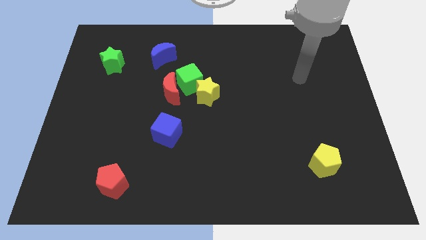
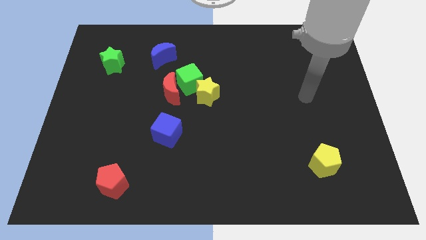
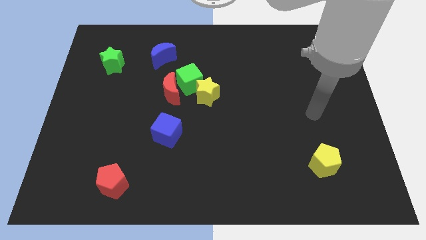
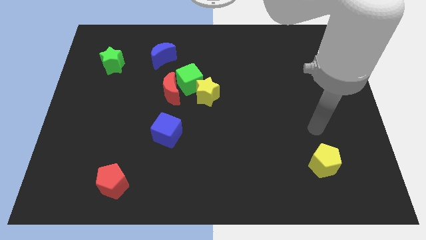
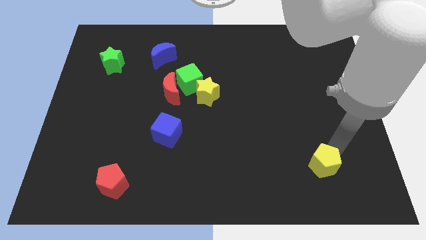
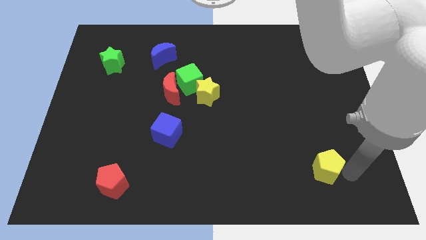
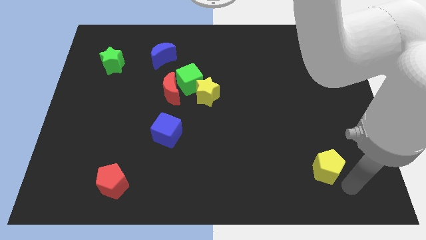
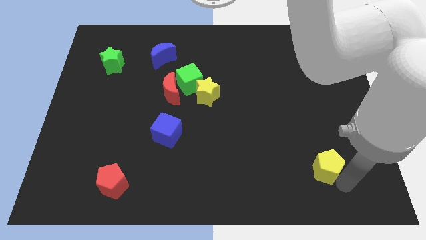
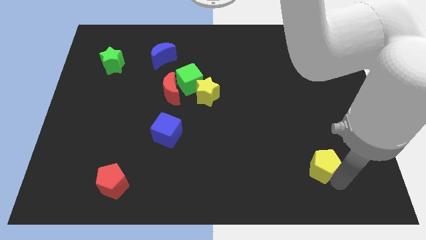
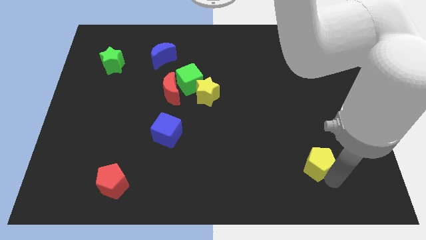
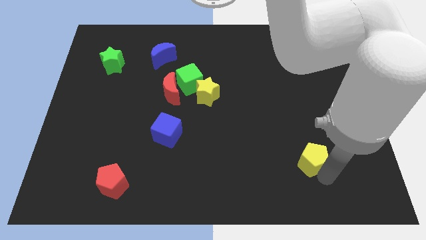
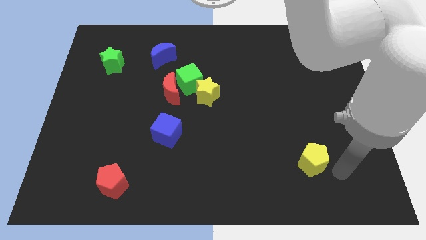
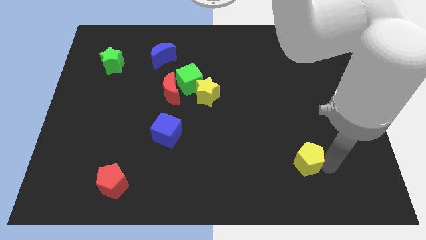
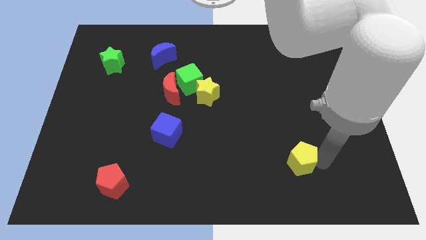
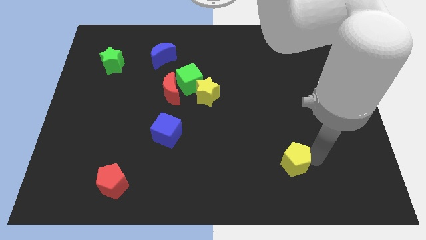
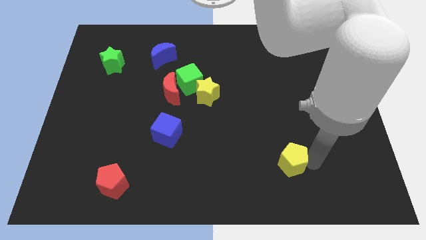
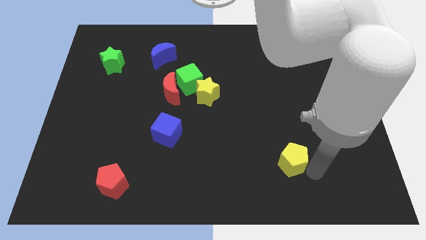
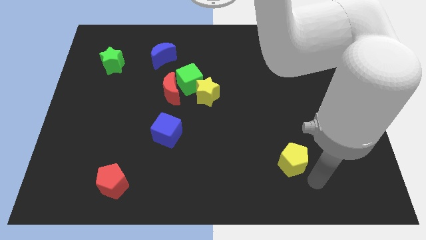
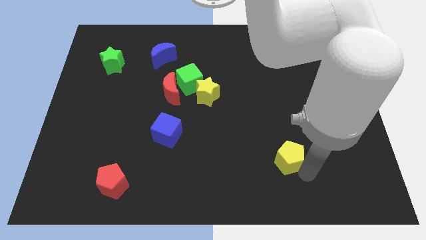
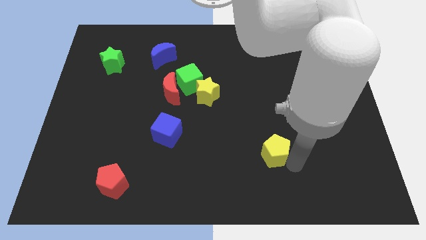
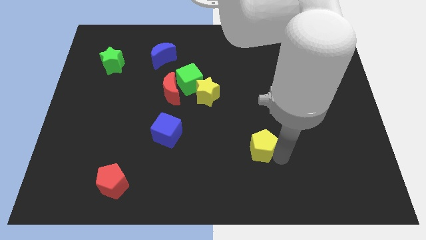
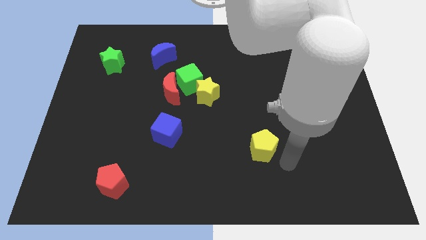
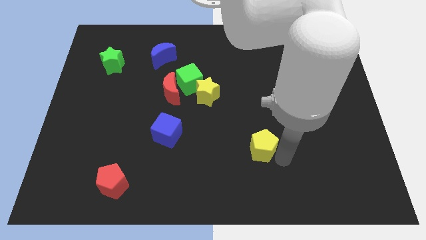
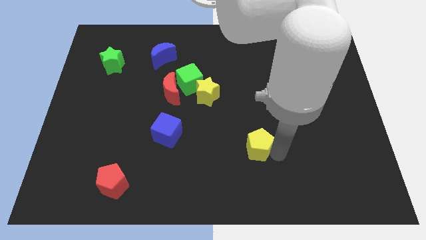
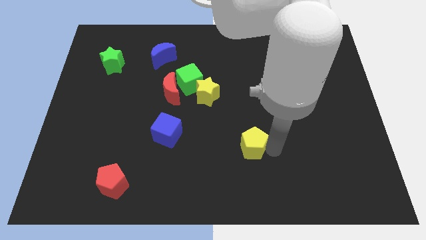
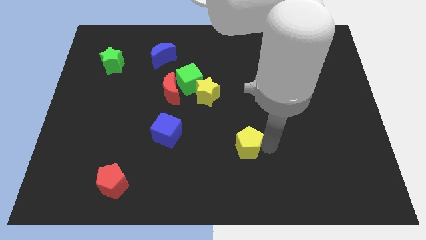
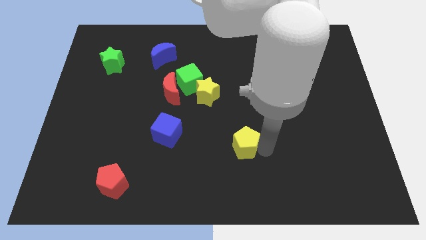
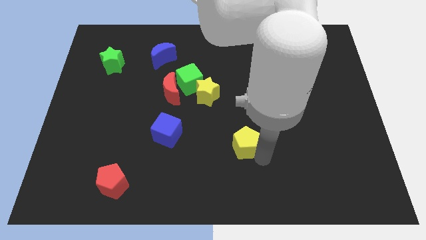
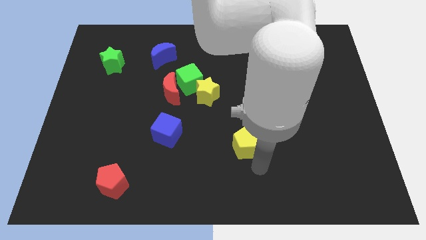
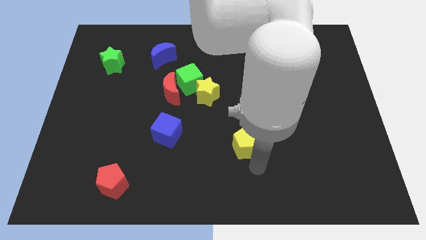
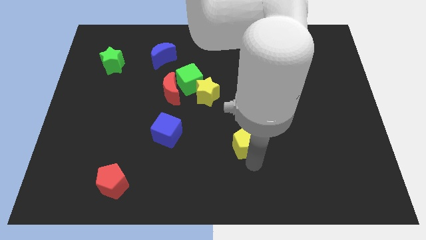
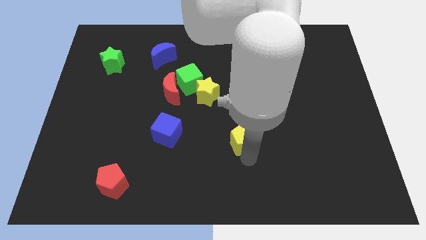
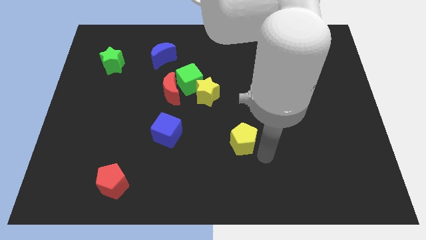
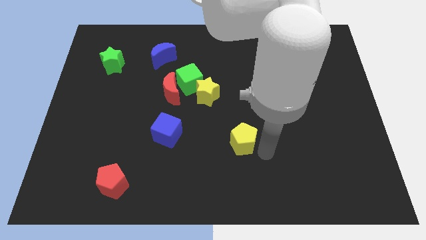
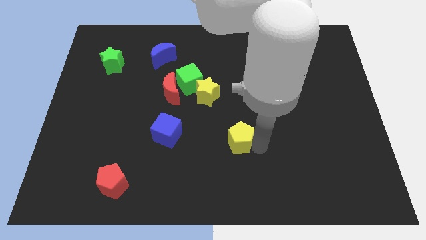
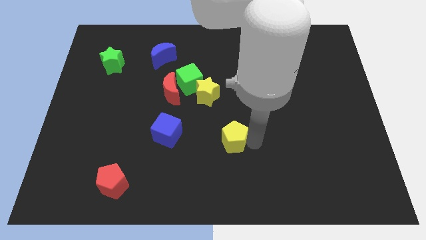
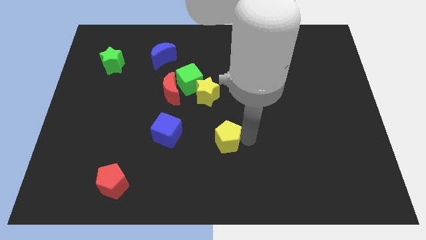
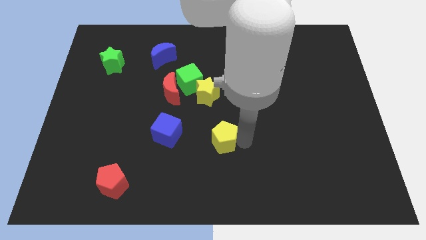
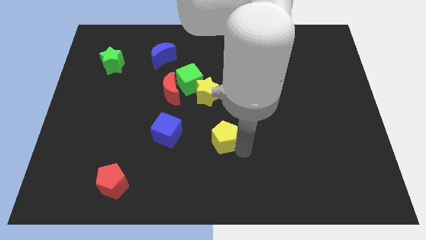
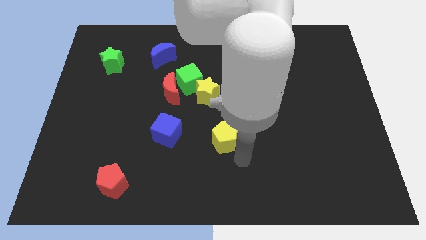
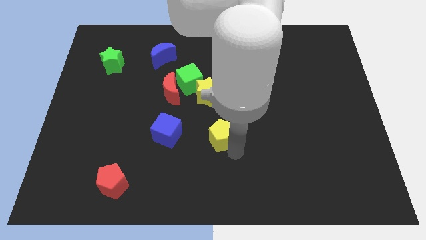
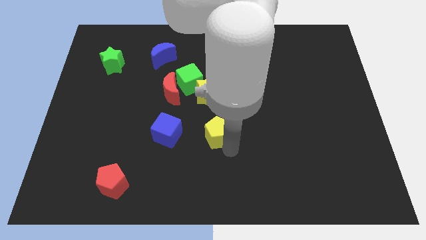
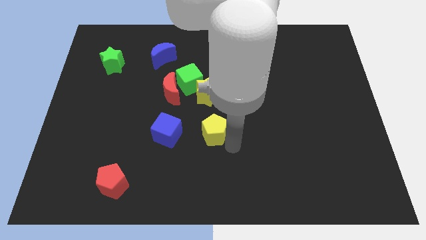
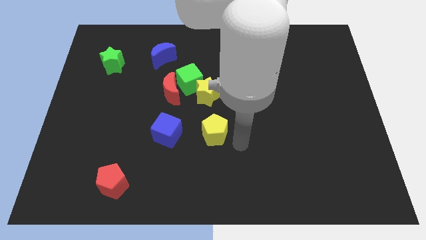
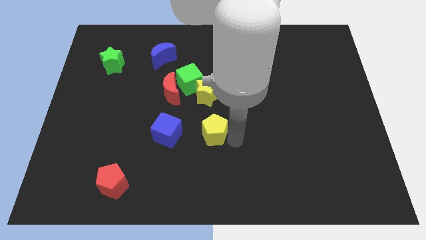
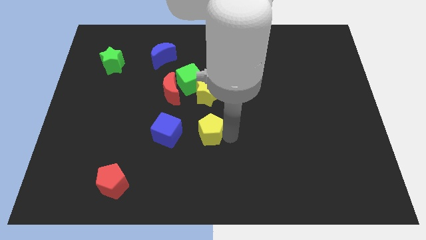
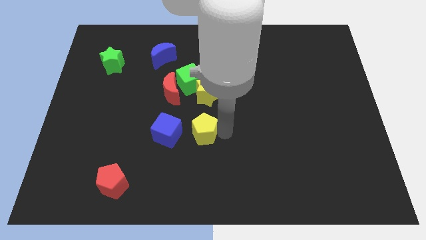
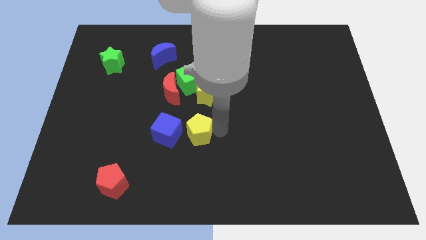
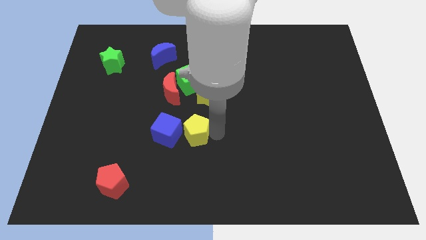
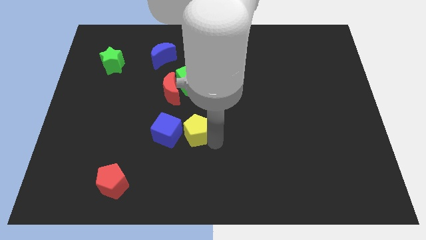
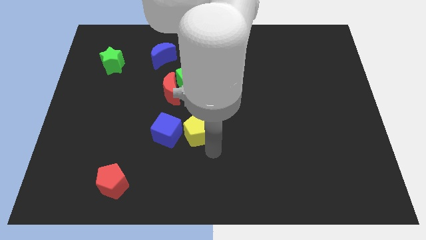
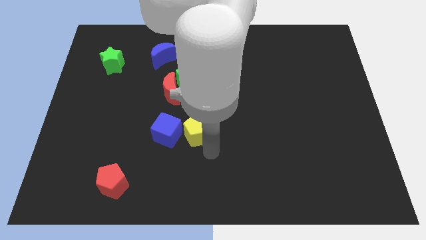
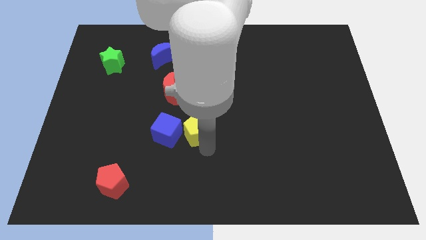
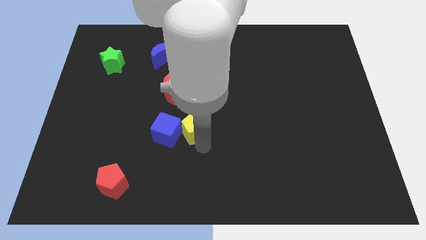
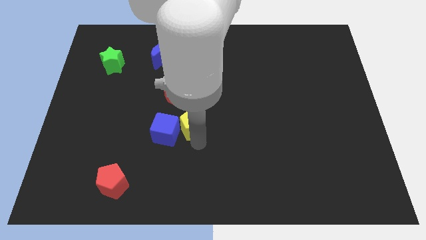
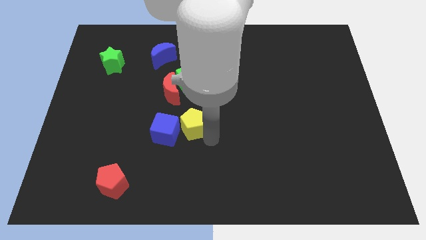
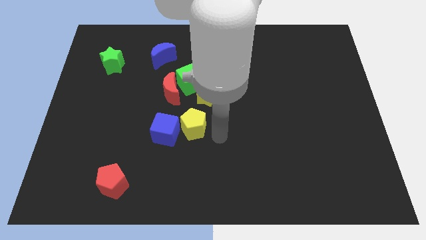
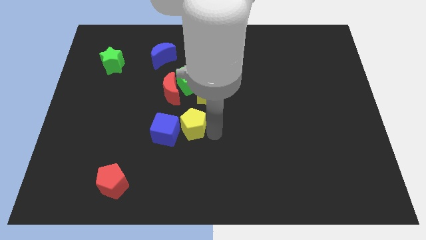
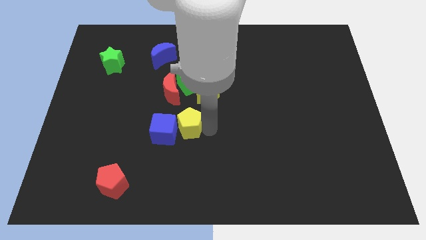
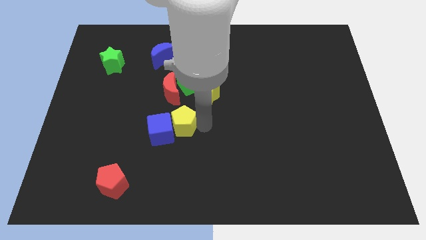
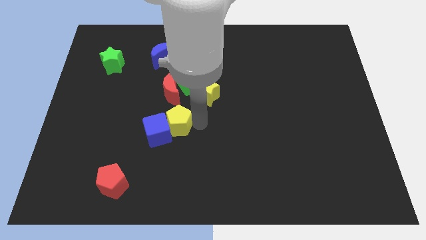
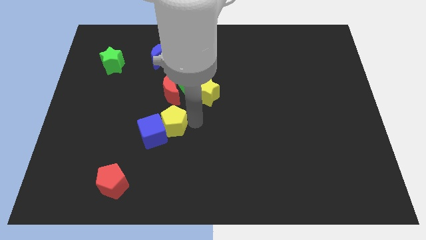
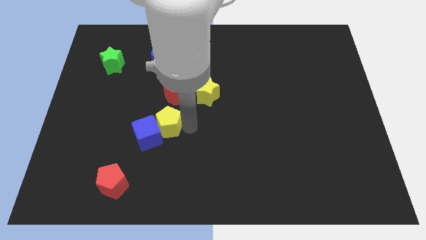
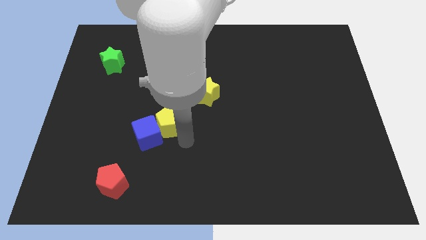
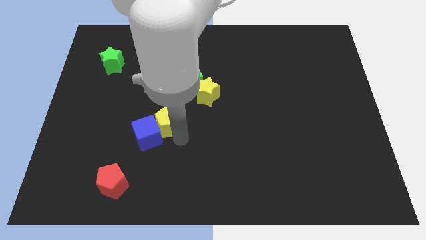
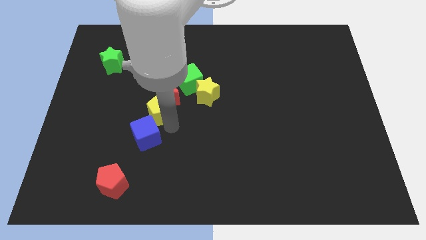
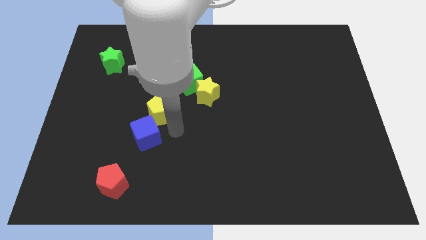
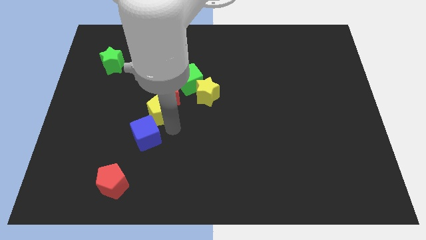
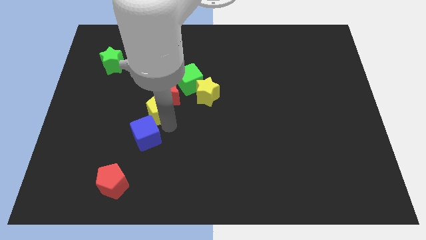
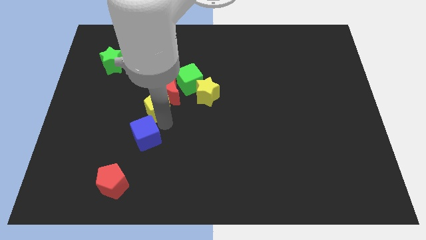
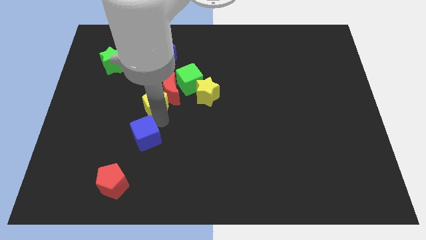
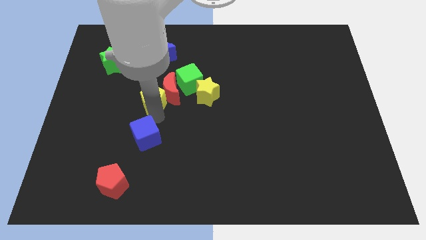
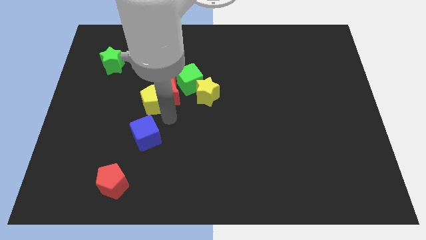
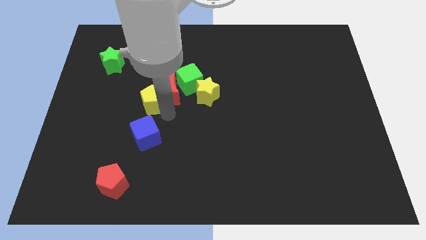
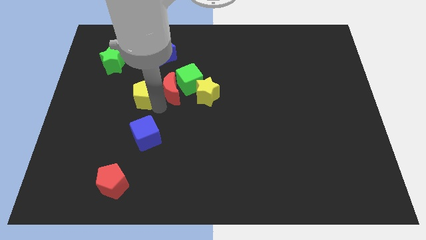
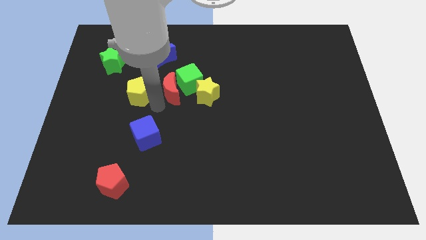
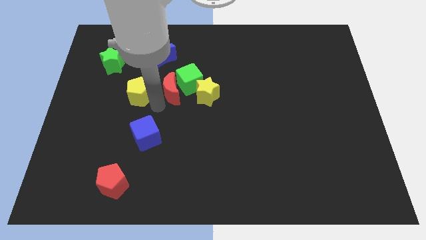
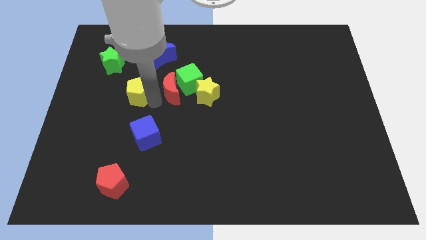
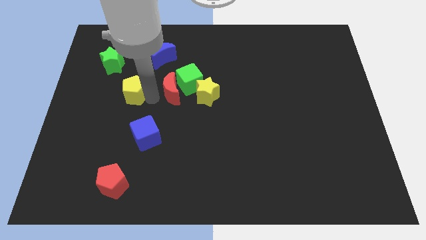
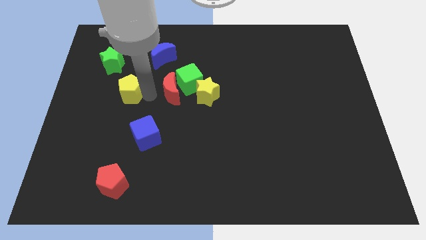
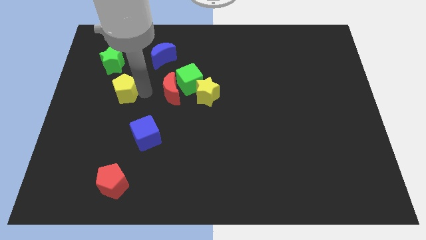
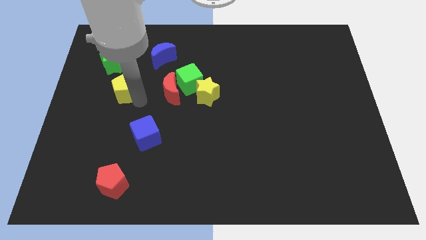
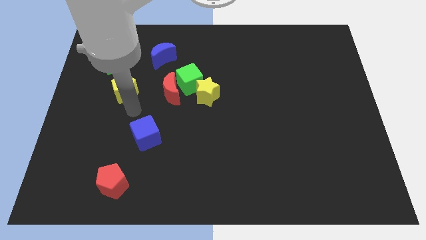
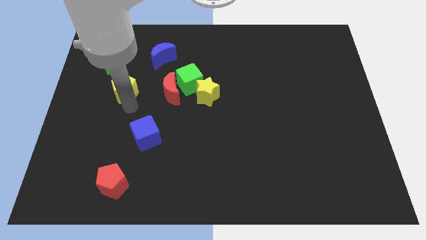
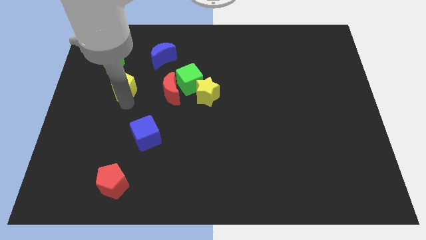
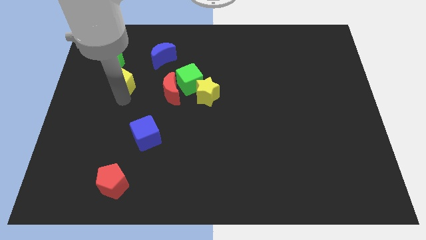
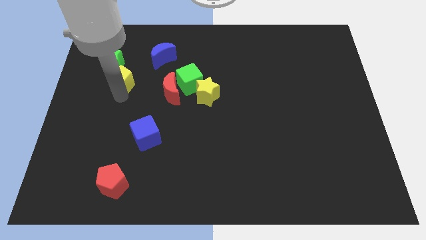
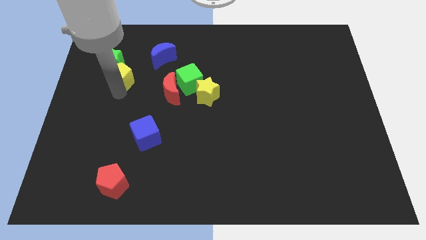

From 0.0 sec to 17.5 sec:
push the yellow pentagon to the green star
